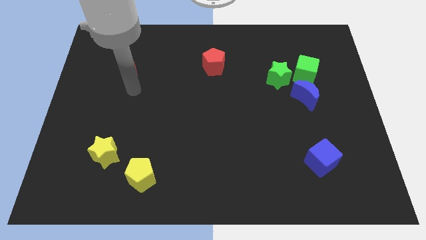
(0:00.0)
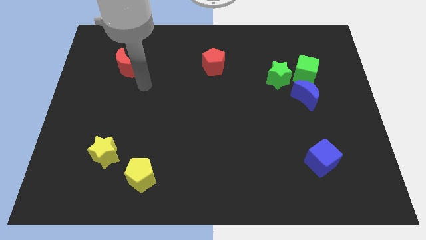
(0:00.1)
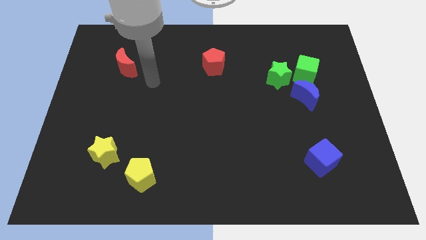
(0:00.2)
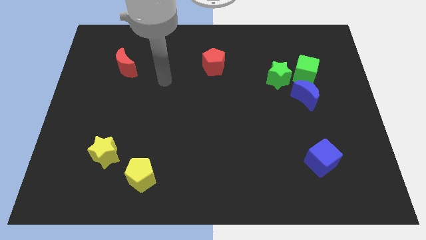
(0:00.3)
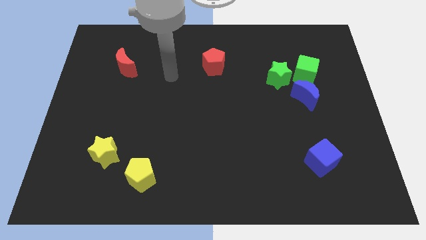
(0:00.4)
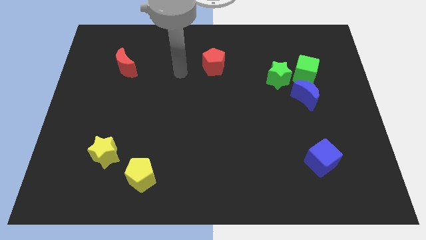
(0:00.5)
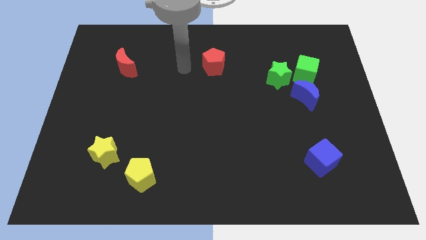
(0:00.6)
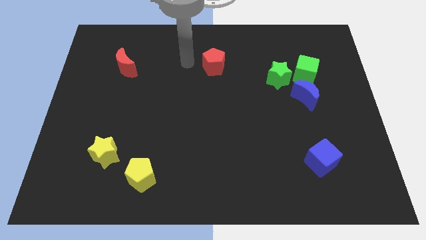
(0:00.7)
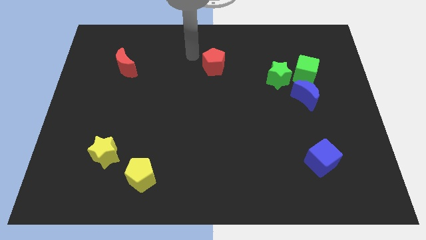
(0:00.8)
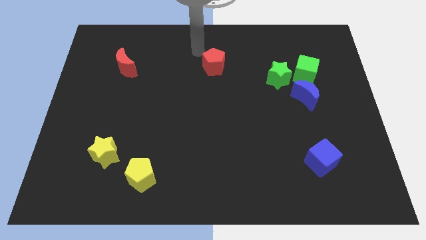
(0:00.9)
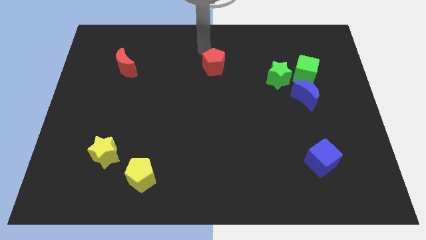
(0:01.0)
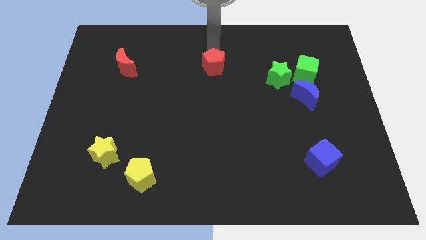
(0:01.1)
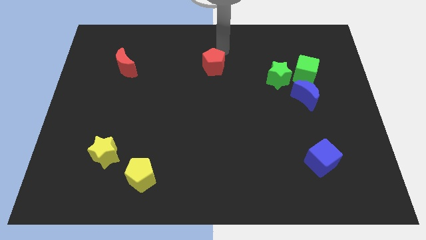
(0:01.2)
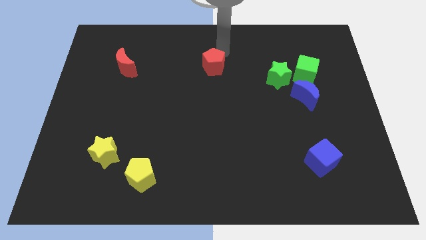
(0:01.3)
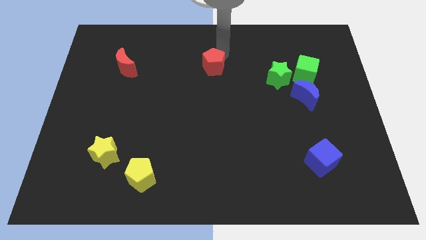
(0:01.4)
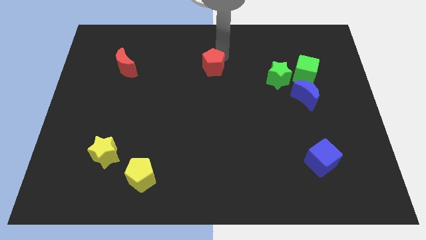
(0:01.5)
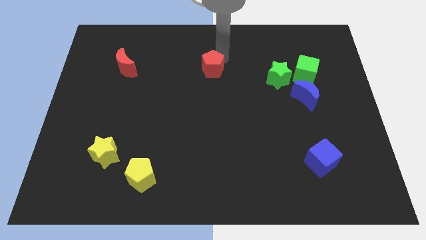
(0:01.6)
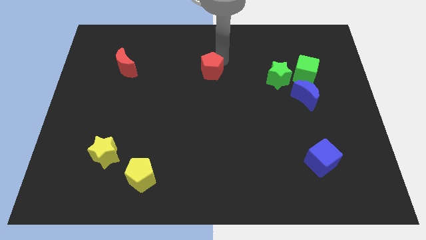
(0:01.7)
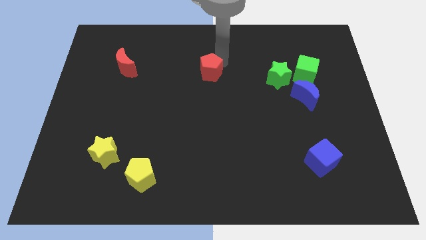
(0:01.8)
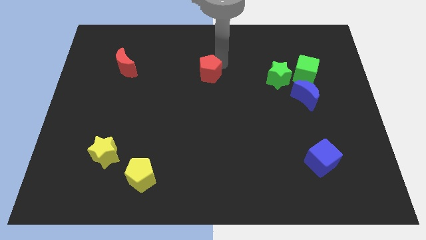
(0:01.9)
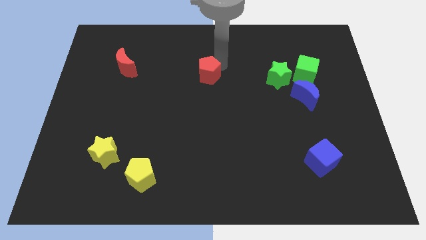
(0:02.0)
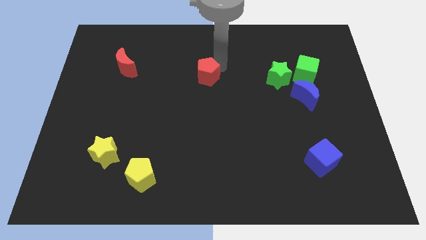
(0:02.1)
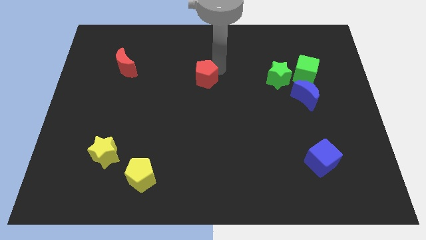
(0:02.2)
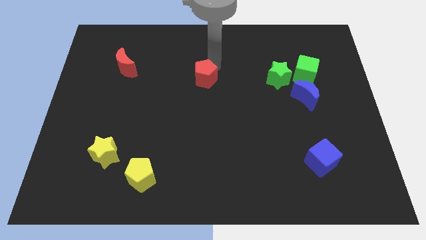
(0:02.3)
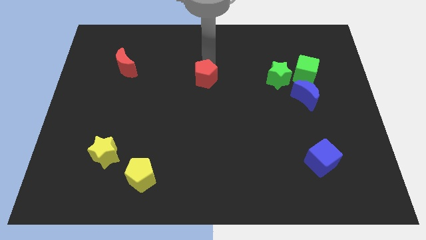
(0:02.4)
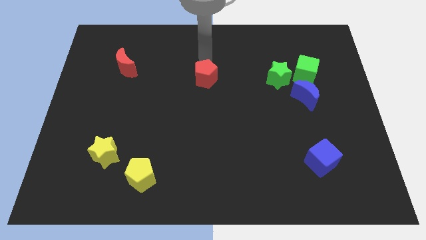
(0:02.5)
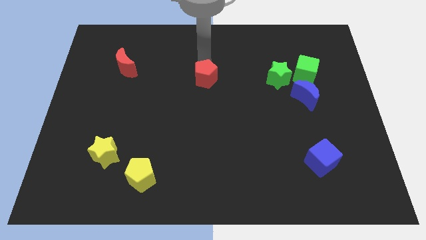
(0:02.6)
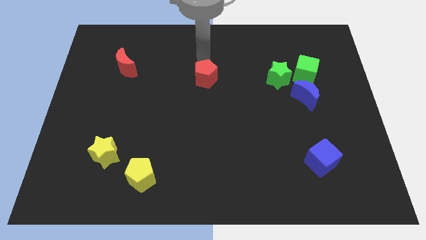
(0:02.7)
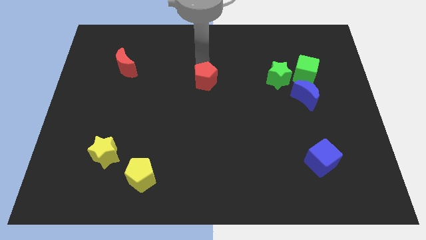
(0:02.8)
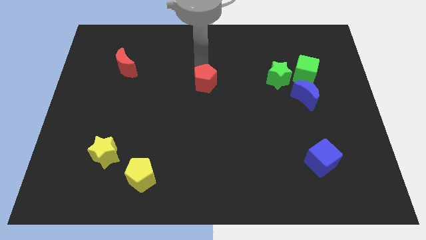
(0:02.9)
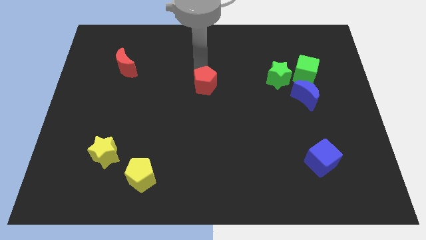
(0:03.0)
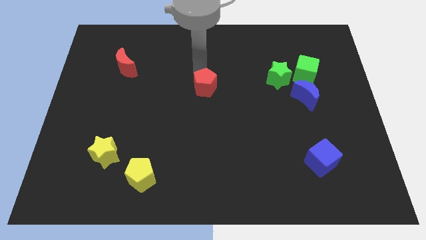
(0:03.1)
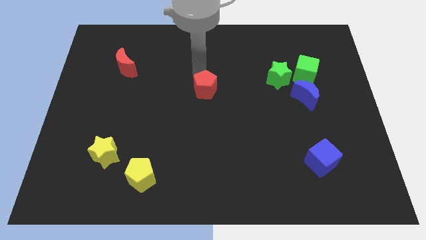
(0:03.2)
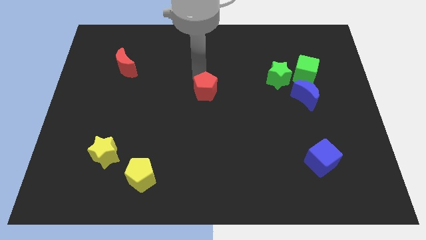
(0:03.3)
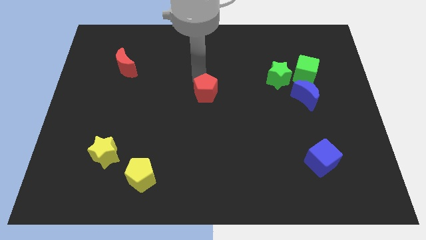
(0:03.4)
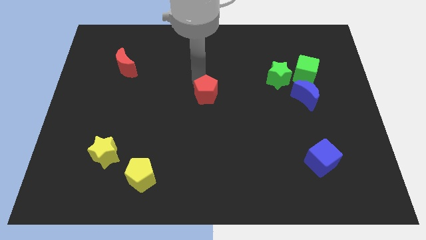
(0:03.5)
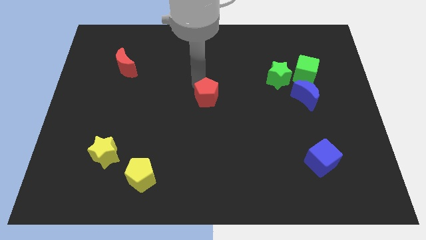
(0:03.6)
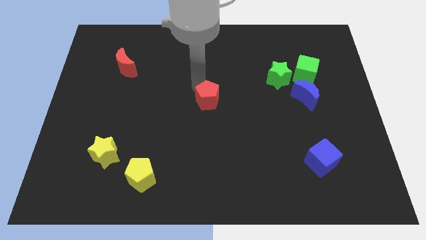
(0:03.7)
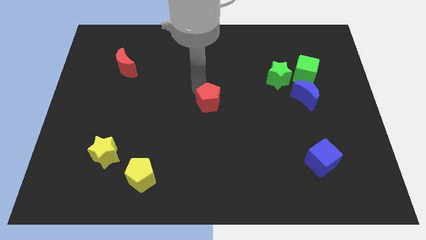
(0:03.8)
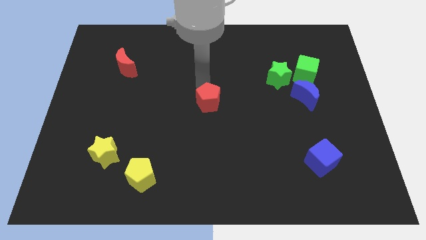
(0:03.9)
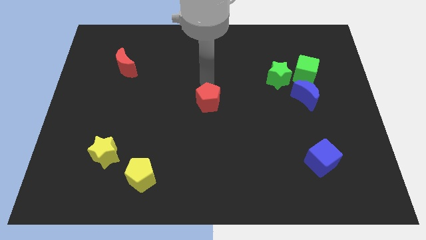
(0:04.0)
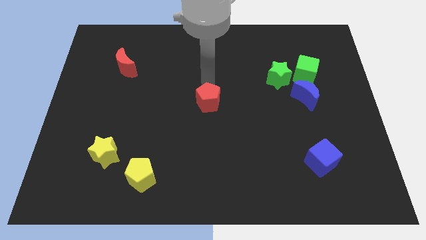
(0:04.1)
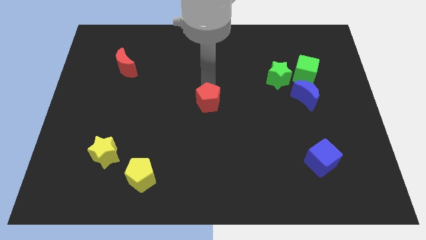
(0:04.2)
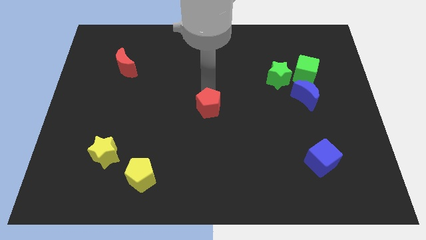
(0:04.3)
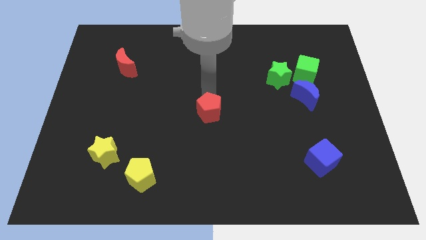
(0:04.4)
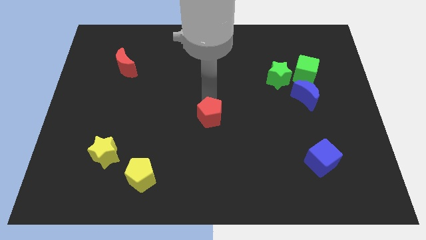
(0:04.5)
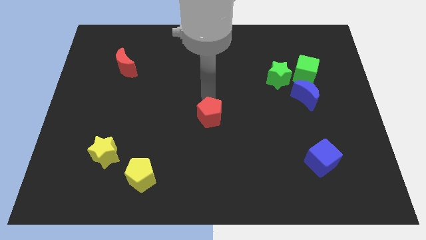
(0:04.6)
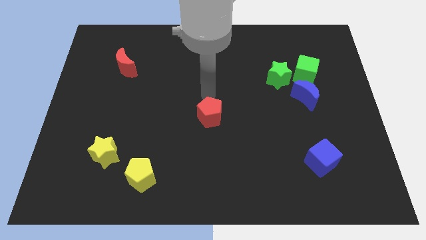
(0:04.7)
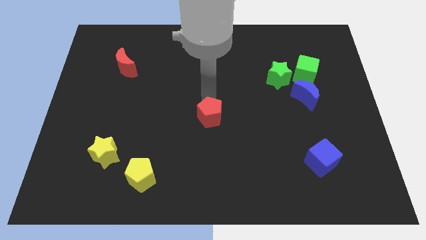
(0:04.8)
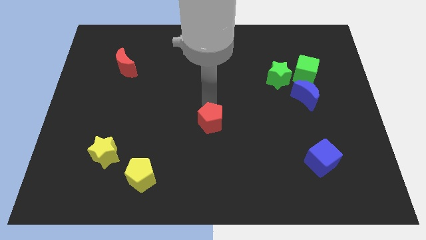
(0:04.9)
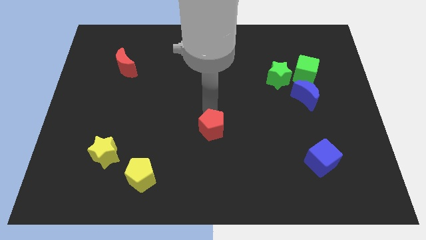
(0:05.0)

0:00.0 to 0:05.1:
move the red pentagon down

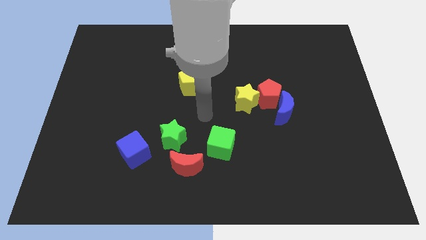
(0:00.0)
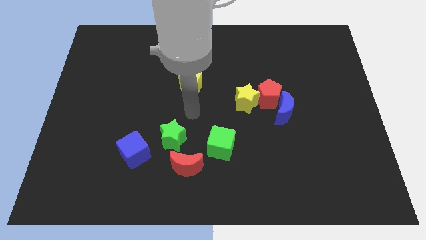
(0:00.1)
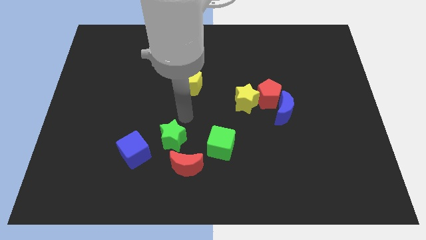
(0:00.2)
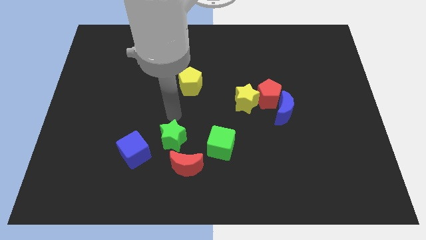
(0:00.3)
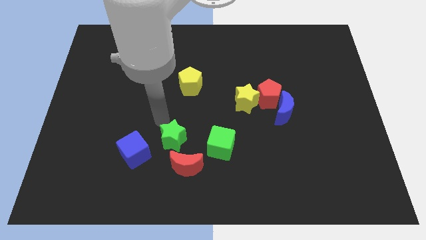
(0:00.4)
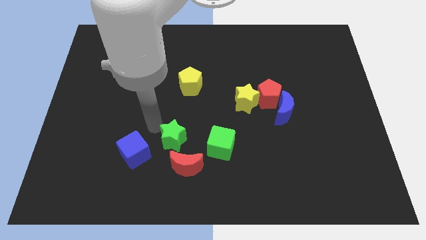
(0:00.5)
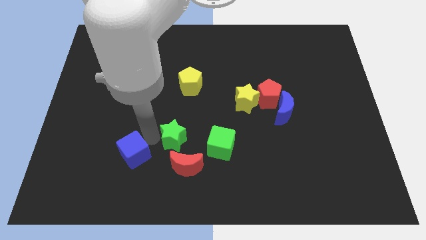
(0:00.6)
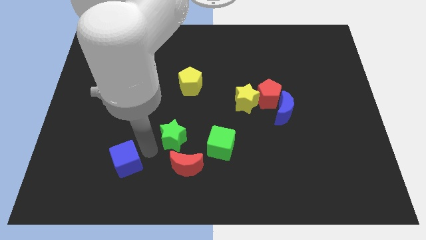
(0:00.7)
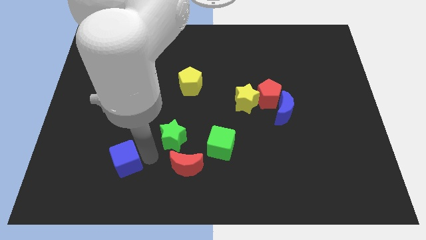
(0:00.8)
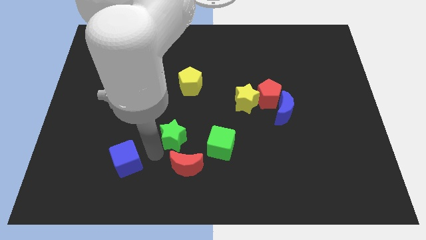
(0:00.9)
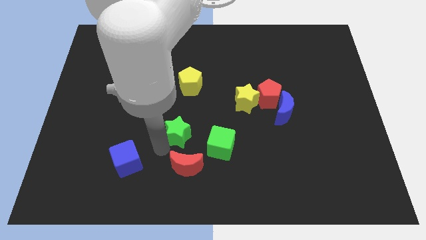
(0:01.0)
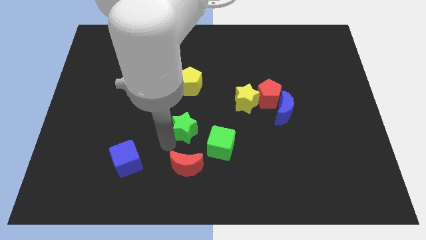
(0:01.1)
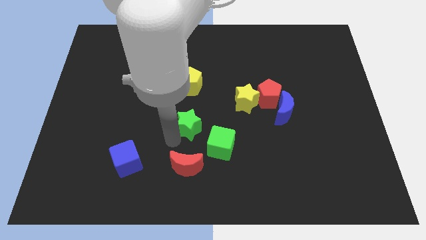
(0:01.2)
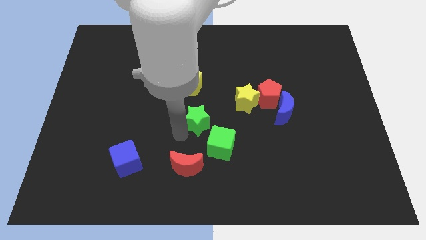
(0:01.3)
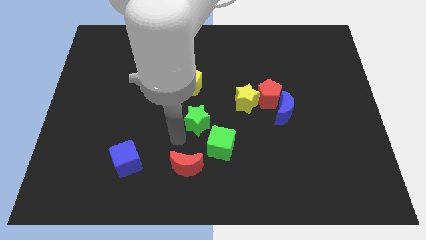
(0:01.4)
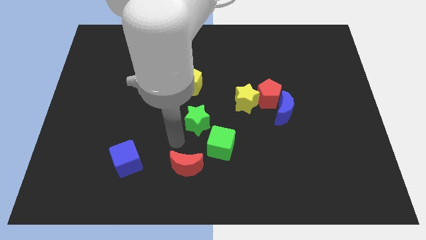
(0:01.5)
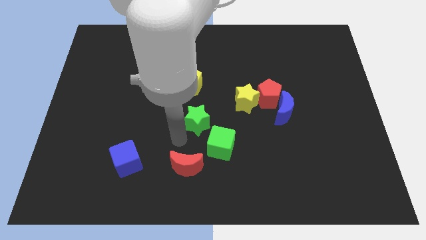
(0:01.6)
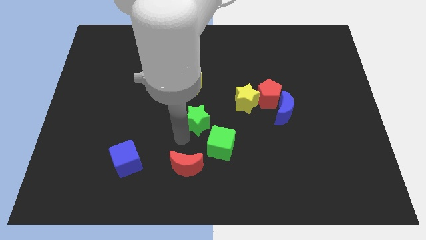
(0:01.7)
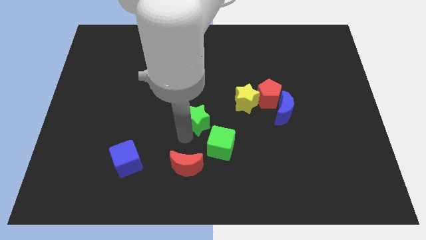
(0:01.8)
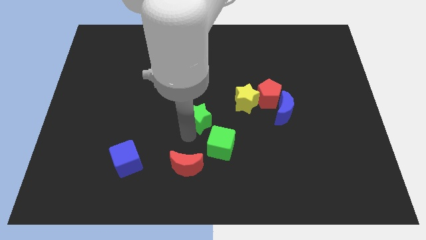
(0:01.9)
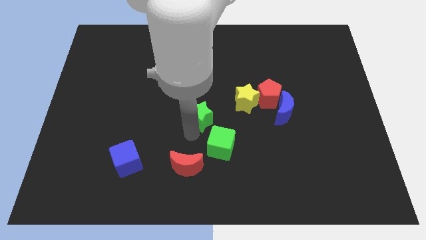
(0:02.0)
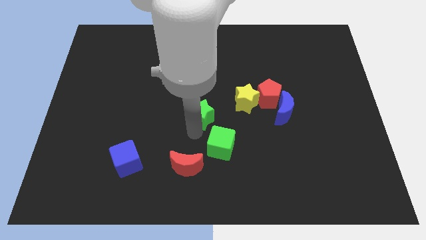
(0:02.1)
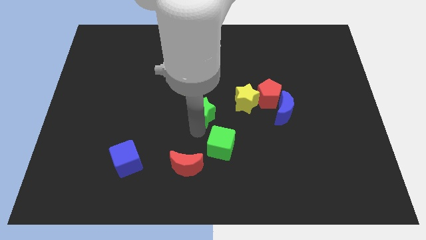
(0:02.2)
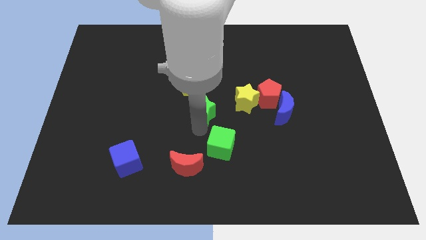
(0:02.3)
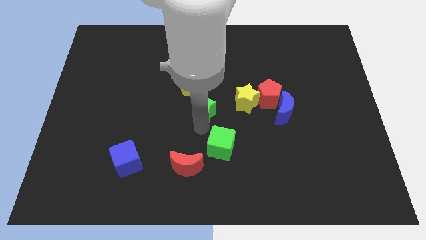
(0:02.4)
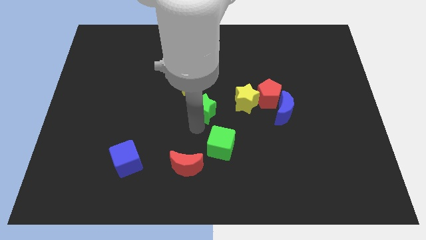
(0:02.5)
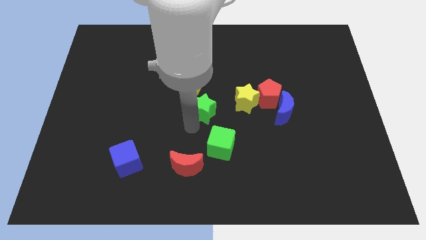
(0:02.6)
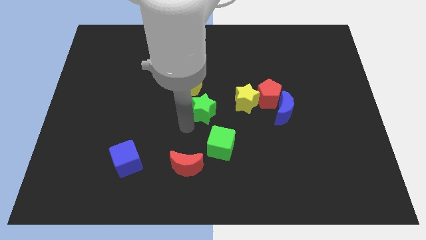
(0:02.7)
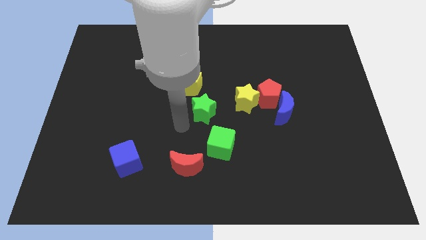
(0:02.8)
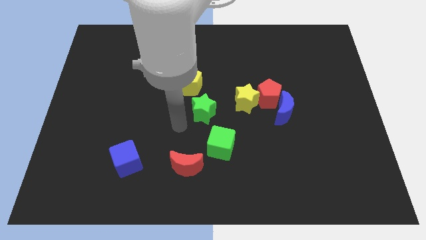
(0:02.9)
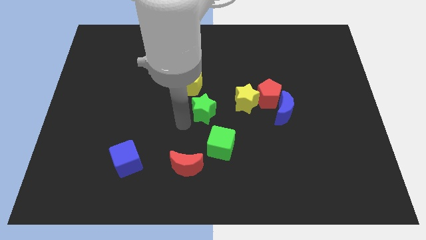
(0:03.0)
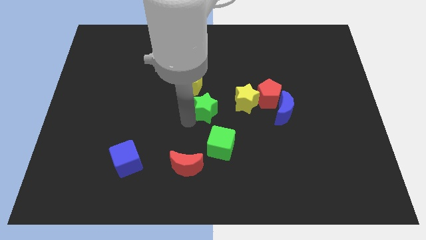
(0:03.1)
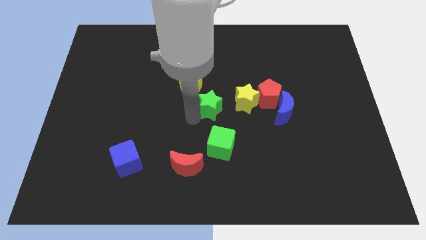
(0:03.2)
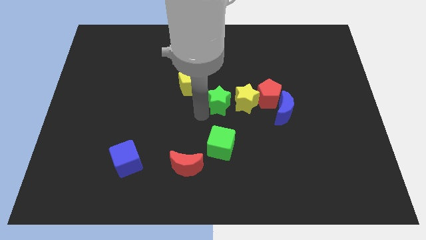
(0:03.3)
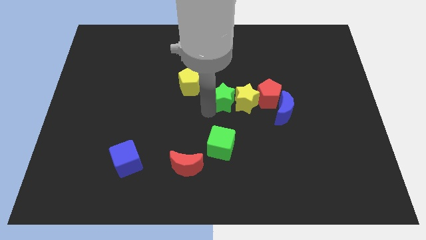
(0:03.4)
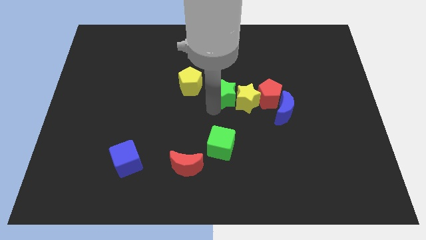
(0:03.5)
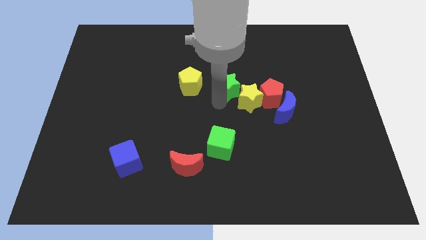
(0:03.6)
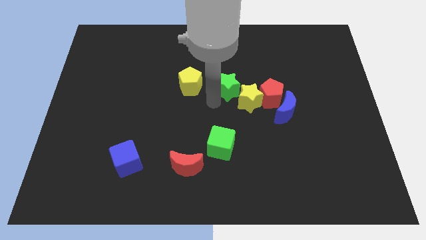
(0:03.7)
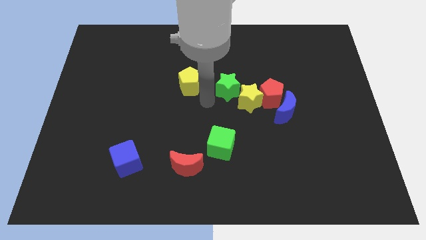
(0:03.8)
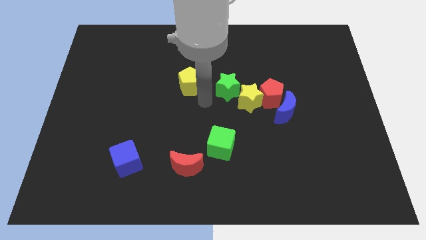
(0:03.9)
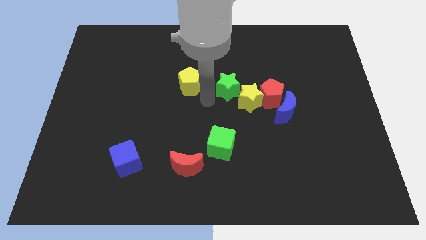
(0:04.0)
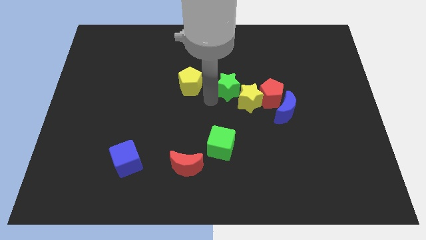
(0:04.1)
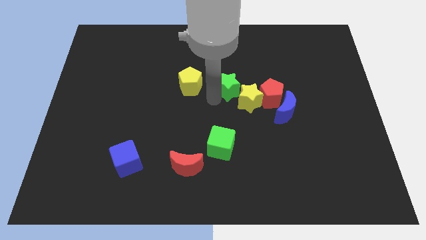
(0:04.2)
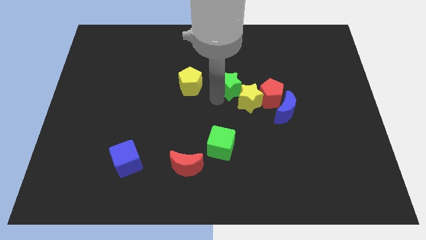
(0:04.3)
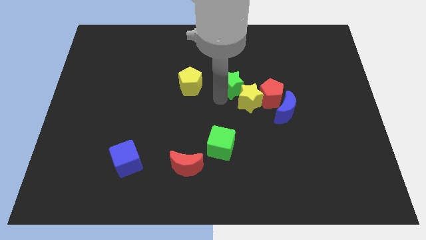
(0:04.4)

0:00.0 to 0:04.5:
move the green star diagonally up and right
